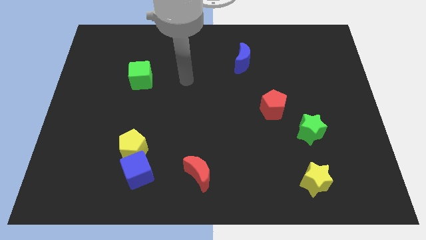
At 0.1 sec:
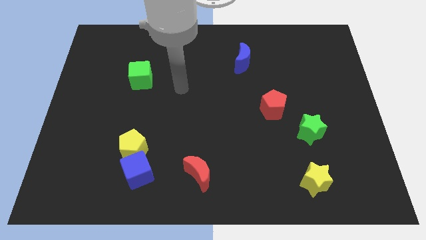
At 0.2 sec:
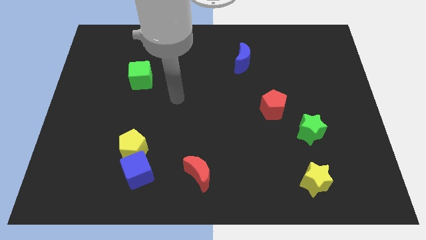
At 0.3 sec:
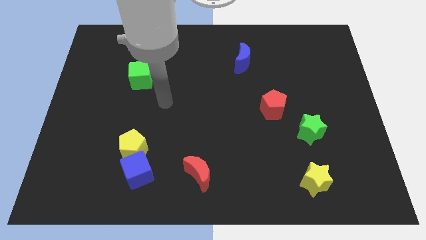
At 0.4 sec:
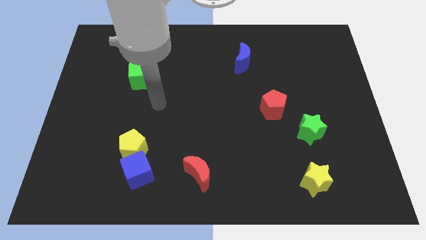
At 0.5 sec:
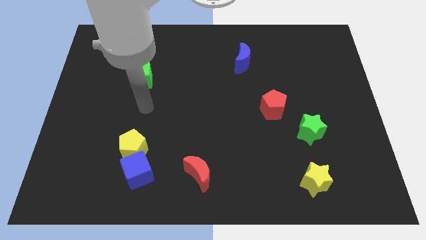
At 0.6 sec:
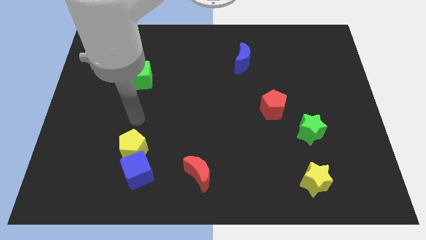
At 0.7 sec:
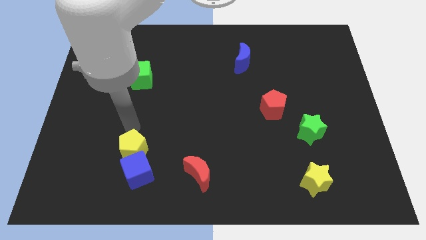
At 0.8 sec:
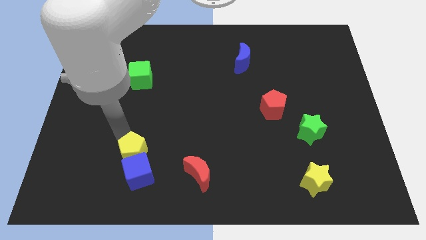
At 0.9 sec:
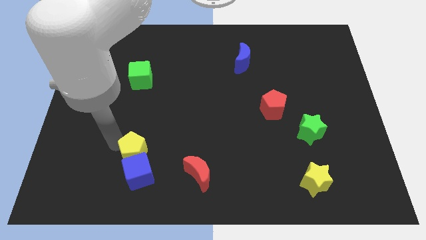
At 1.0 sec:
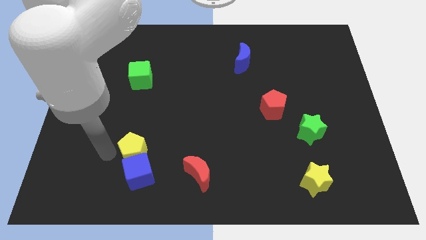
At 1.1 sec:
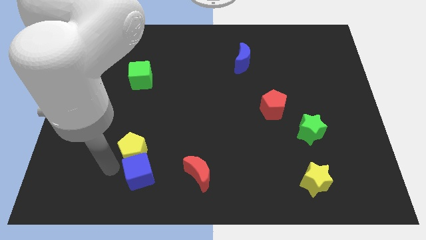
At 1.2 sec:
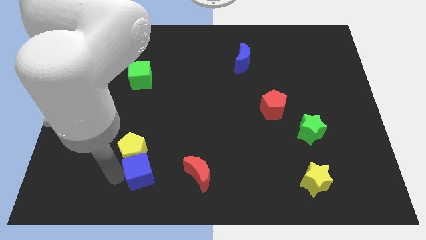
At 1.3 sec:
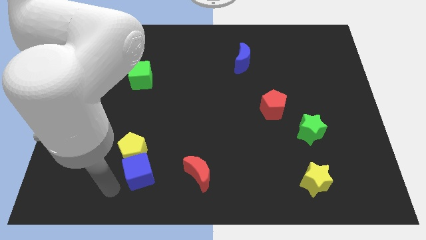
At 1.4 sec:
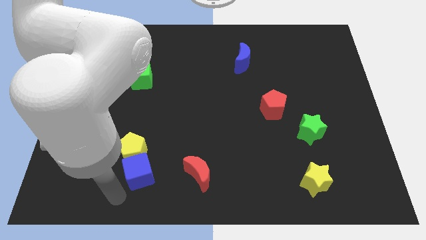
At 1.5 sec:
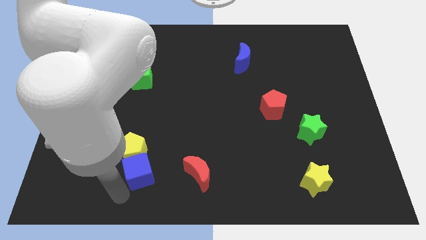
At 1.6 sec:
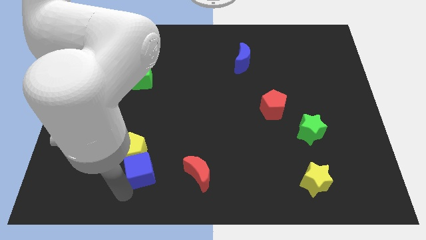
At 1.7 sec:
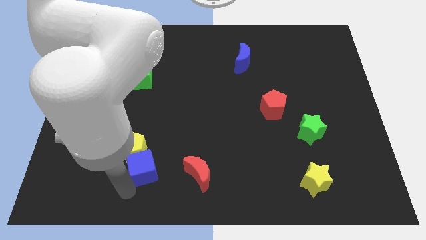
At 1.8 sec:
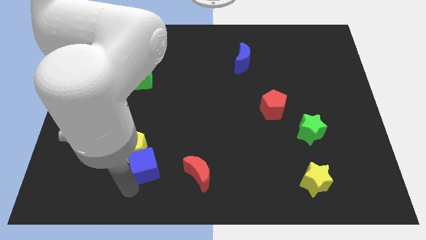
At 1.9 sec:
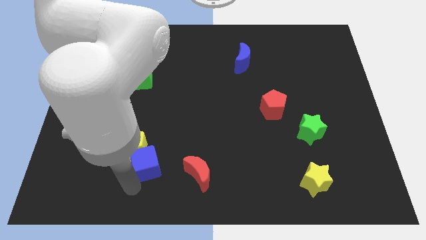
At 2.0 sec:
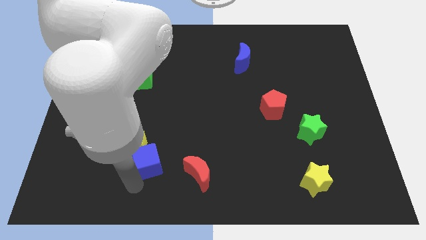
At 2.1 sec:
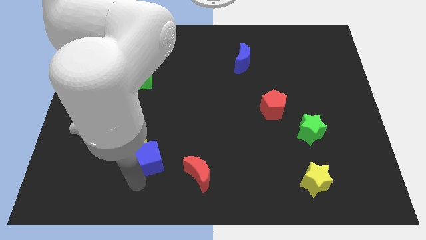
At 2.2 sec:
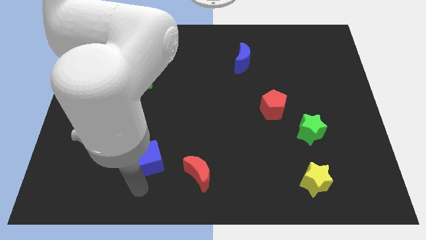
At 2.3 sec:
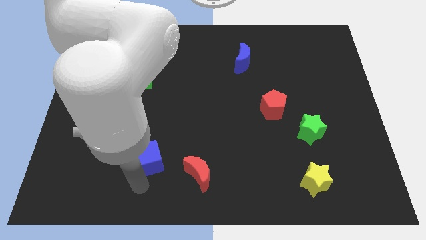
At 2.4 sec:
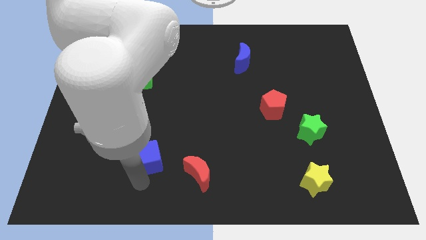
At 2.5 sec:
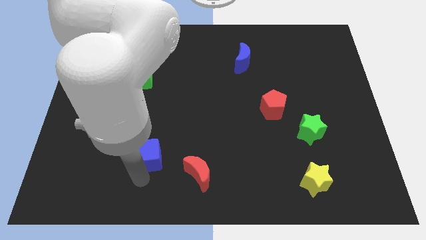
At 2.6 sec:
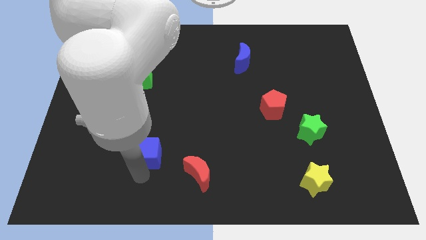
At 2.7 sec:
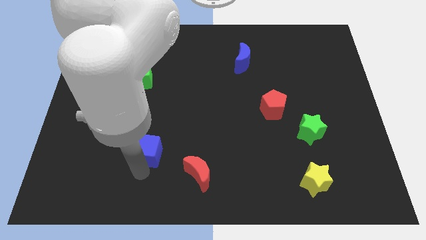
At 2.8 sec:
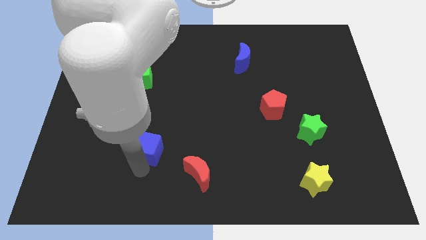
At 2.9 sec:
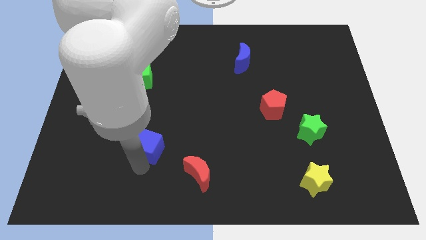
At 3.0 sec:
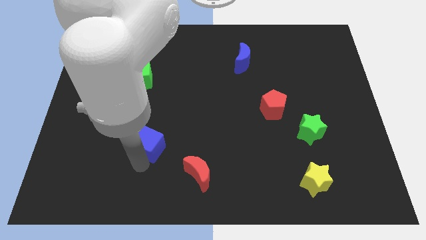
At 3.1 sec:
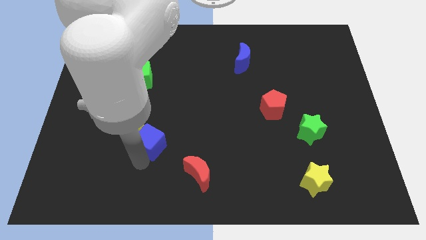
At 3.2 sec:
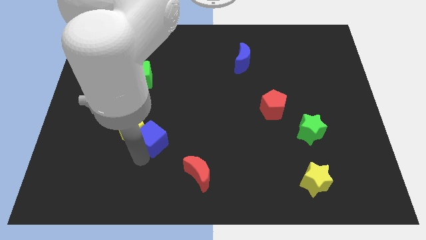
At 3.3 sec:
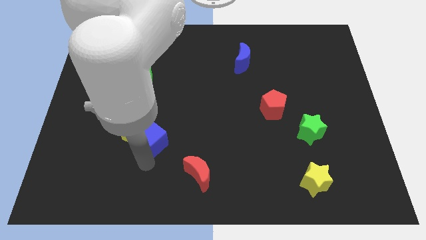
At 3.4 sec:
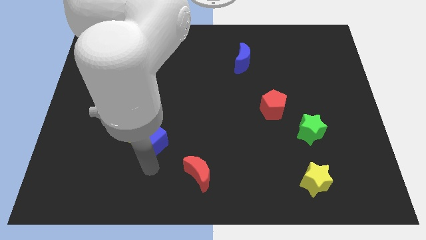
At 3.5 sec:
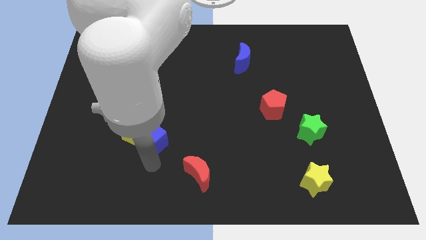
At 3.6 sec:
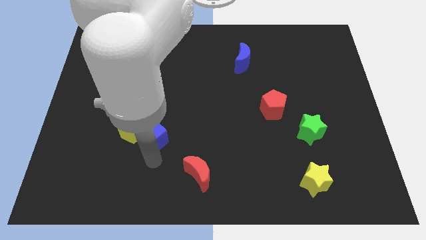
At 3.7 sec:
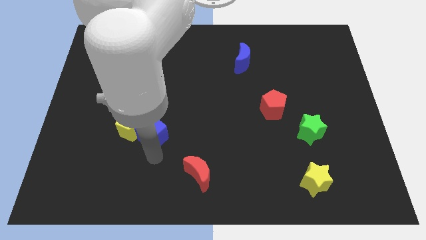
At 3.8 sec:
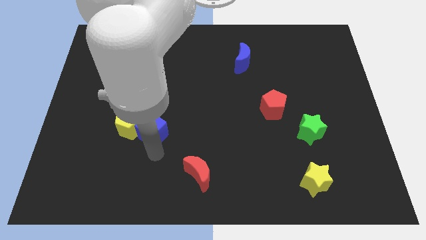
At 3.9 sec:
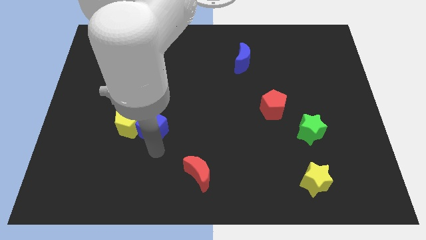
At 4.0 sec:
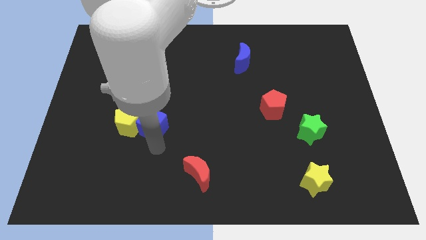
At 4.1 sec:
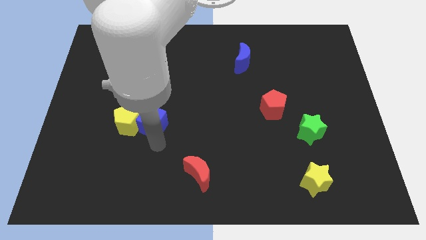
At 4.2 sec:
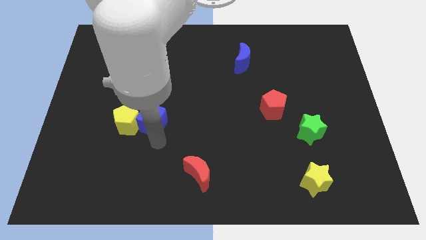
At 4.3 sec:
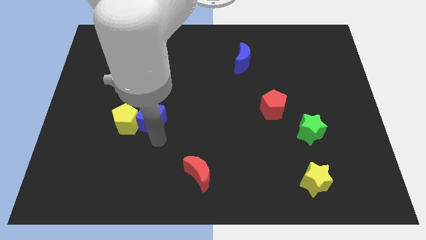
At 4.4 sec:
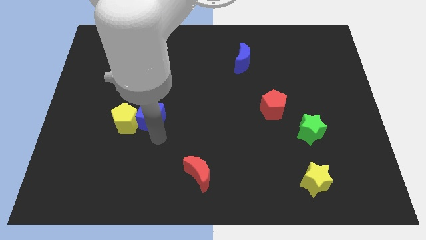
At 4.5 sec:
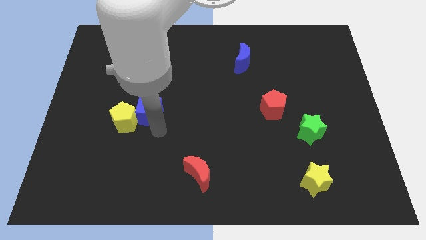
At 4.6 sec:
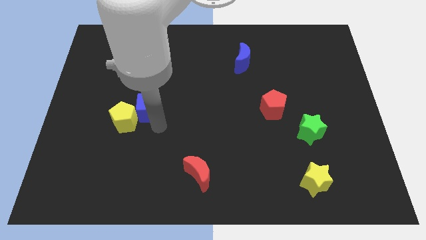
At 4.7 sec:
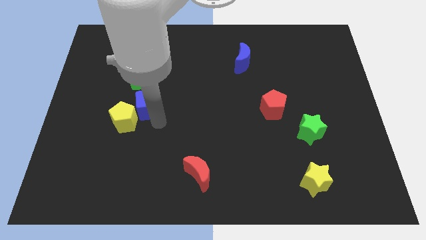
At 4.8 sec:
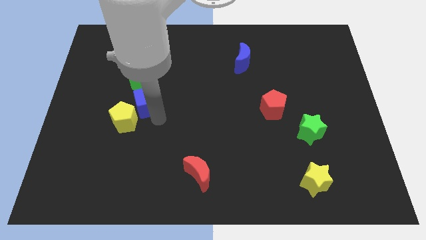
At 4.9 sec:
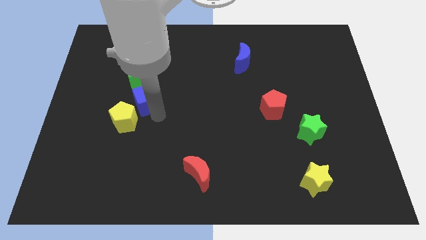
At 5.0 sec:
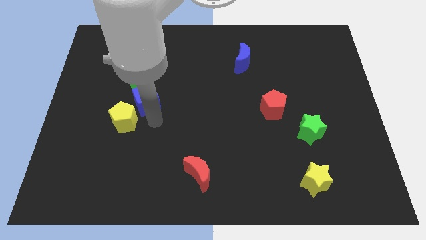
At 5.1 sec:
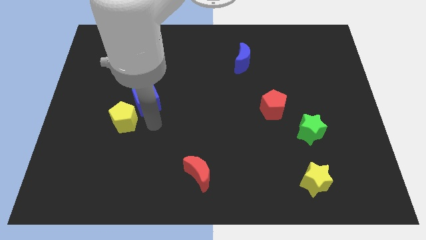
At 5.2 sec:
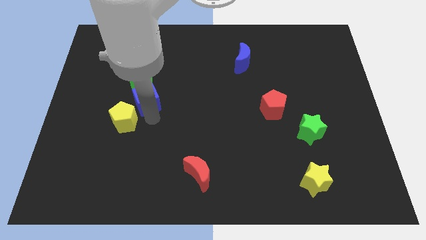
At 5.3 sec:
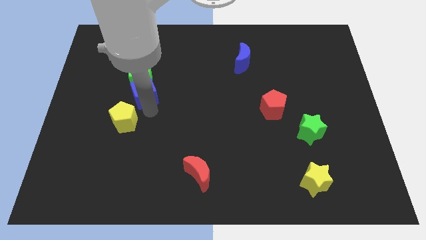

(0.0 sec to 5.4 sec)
push the blue cube to the green cube

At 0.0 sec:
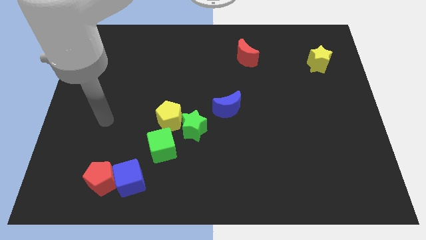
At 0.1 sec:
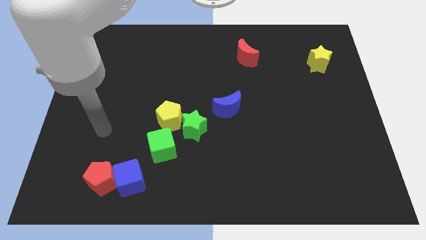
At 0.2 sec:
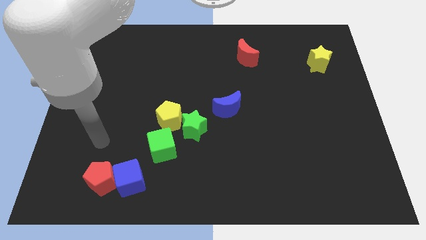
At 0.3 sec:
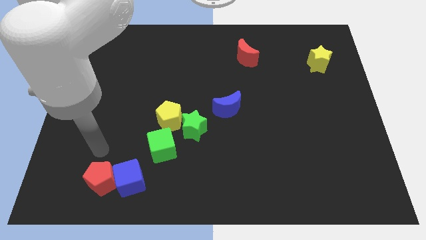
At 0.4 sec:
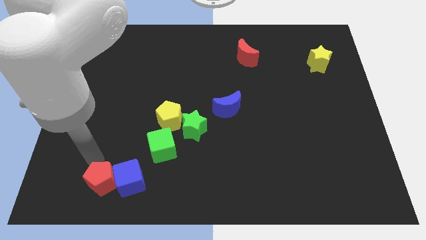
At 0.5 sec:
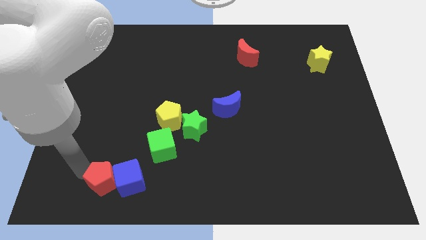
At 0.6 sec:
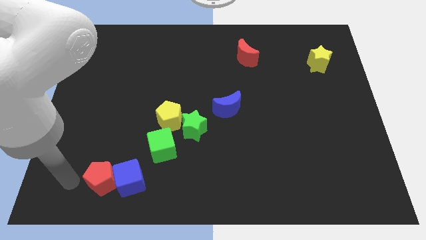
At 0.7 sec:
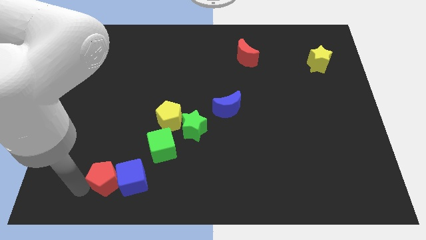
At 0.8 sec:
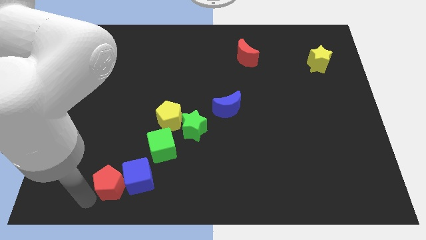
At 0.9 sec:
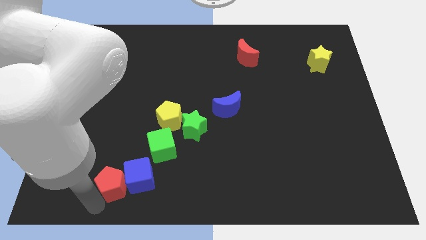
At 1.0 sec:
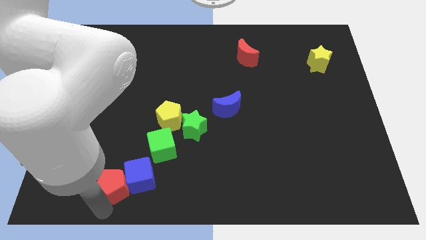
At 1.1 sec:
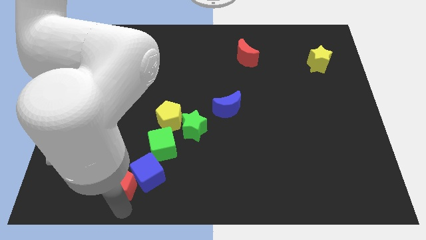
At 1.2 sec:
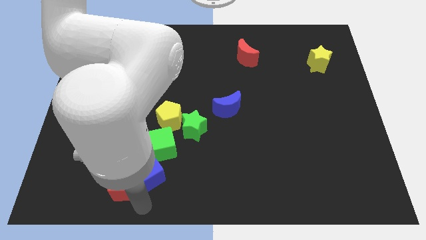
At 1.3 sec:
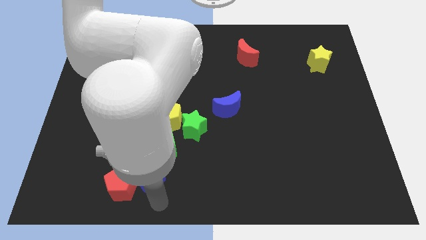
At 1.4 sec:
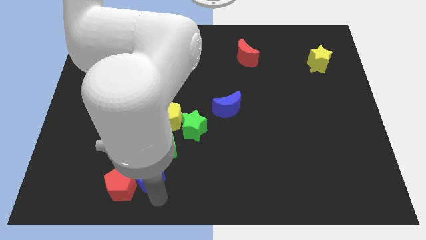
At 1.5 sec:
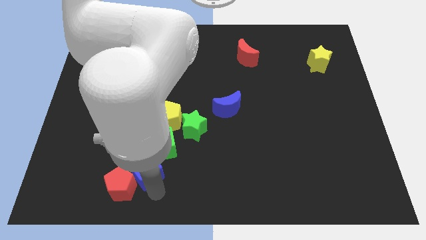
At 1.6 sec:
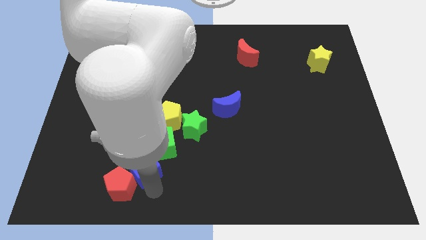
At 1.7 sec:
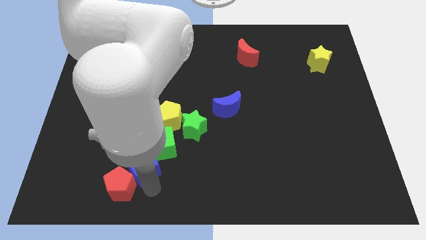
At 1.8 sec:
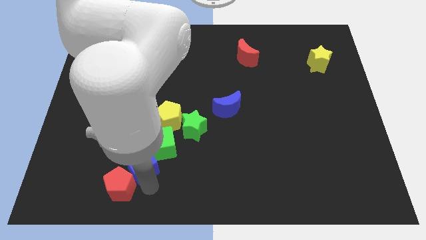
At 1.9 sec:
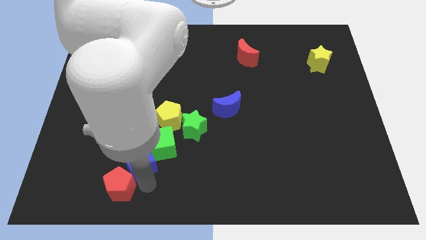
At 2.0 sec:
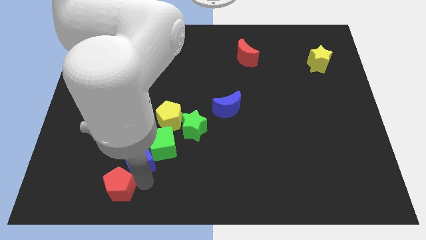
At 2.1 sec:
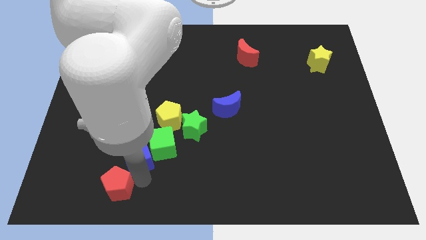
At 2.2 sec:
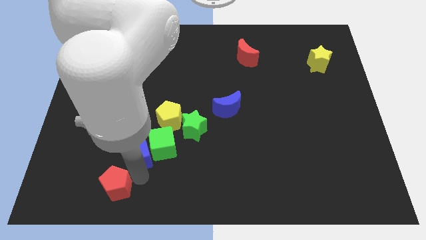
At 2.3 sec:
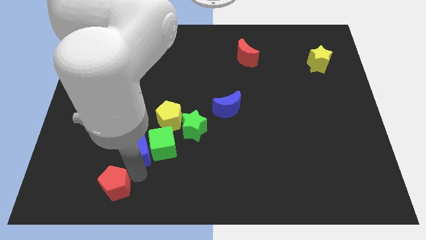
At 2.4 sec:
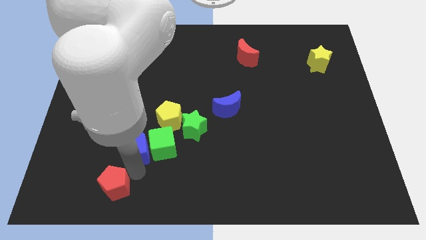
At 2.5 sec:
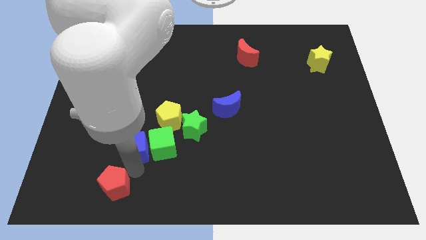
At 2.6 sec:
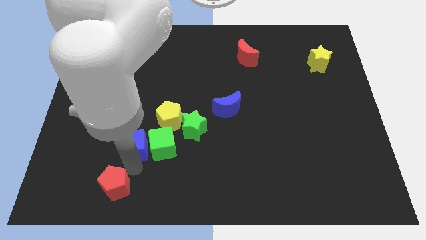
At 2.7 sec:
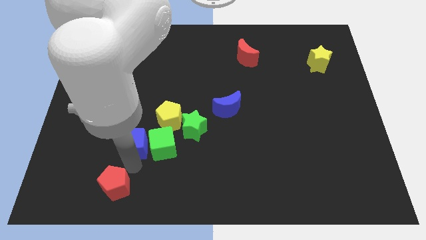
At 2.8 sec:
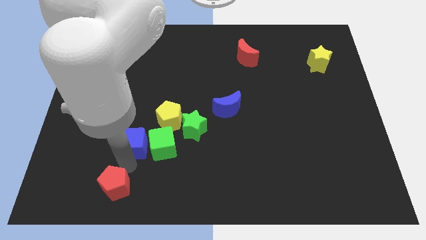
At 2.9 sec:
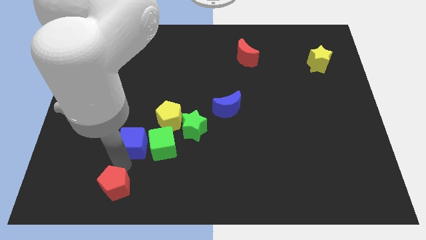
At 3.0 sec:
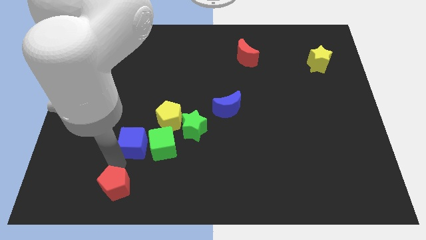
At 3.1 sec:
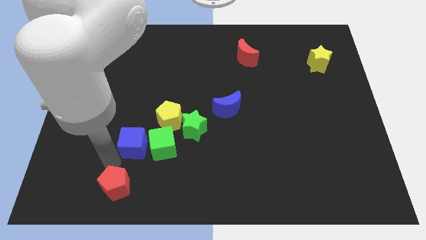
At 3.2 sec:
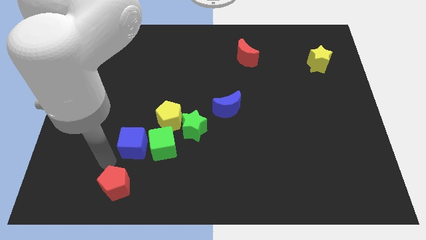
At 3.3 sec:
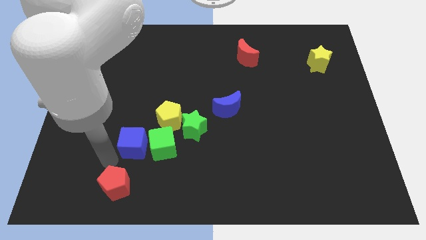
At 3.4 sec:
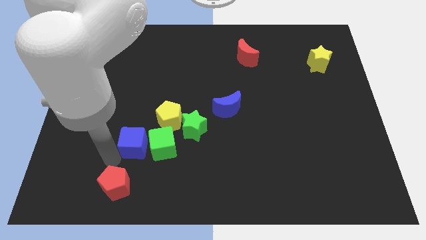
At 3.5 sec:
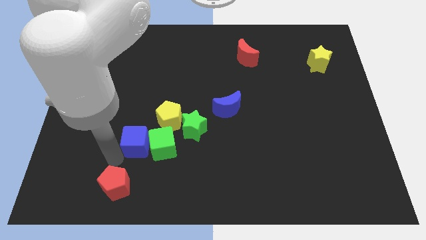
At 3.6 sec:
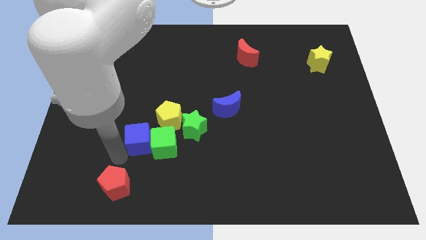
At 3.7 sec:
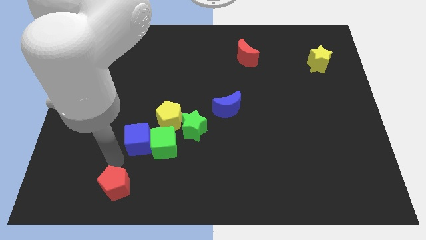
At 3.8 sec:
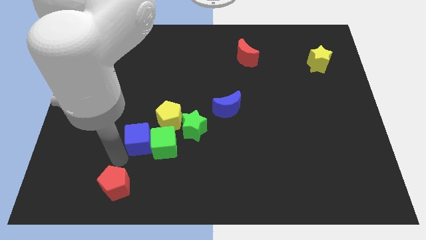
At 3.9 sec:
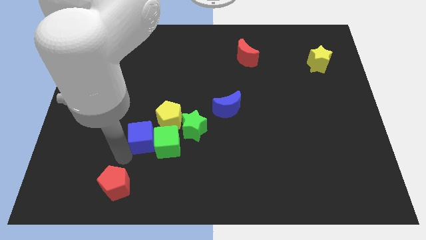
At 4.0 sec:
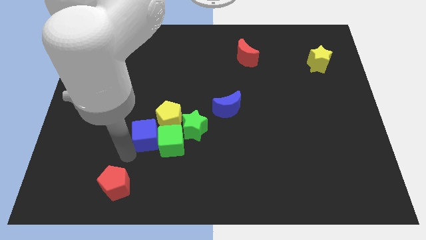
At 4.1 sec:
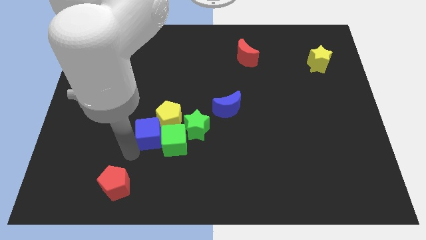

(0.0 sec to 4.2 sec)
move the blue cube towards the yellow pentagon
